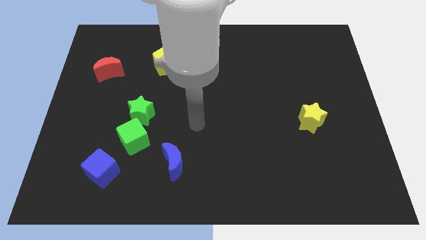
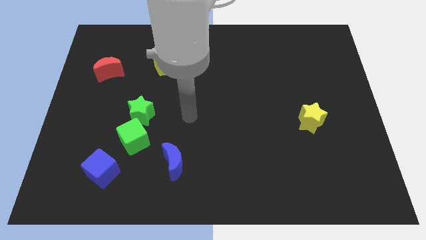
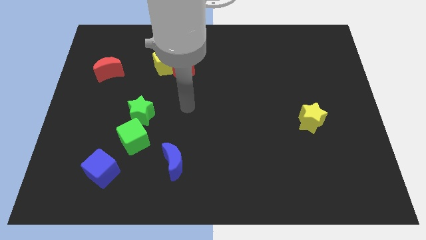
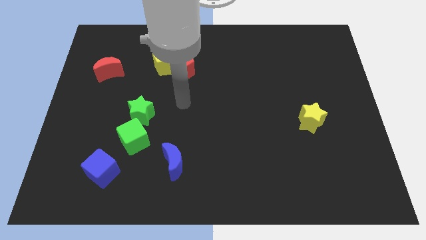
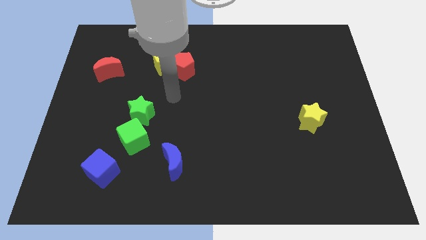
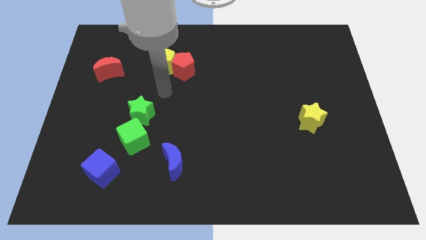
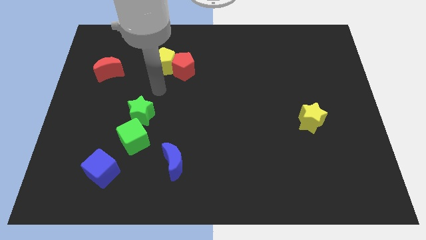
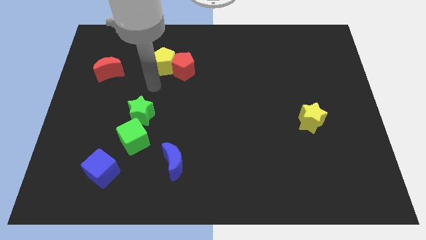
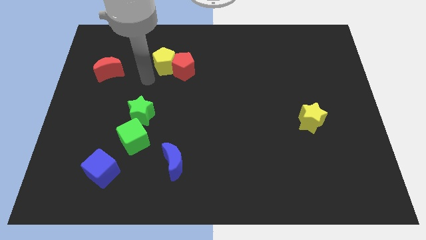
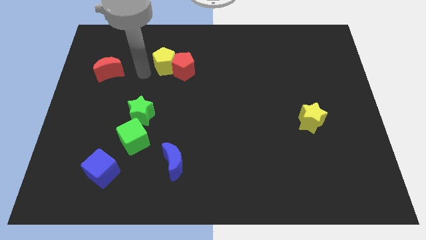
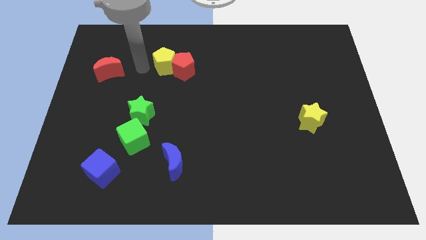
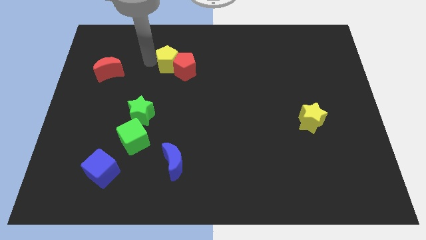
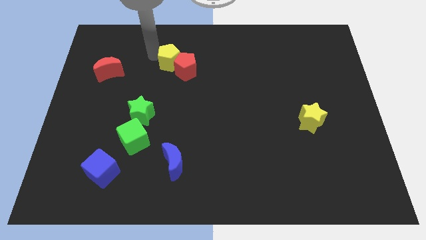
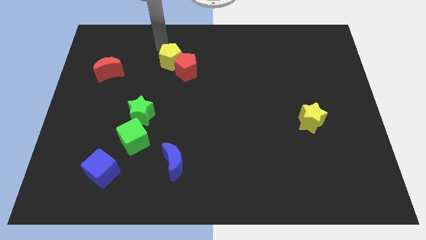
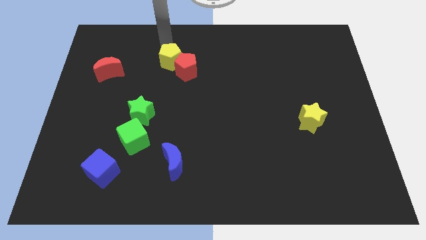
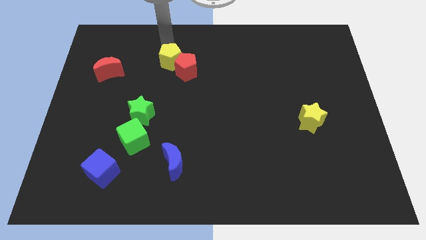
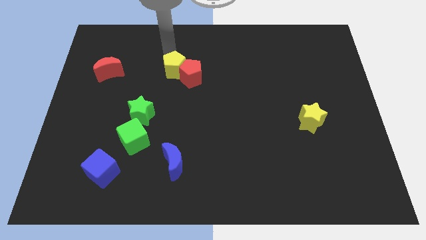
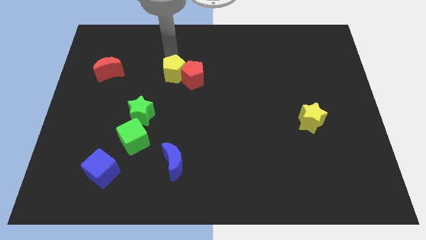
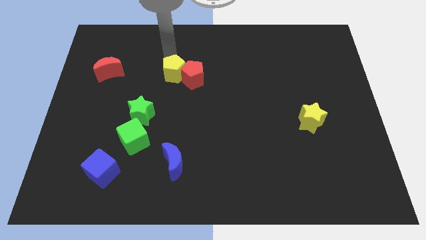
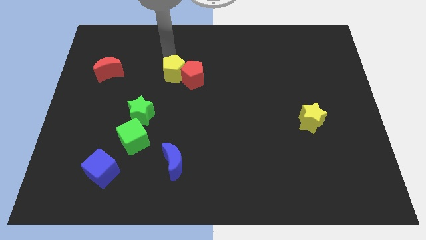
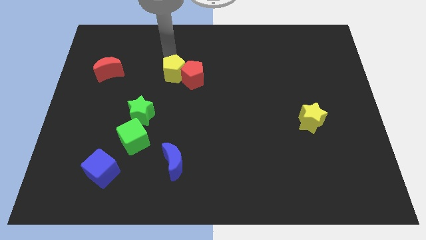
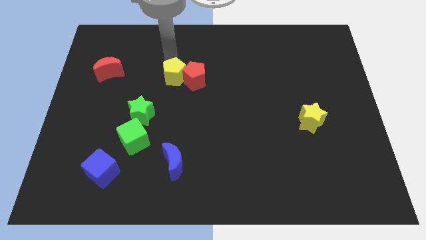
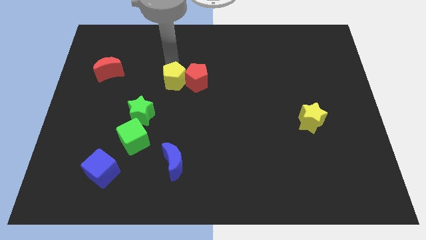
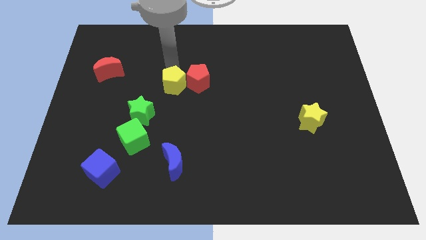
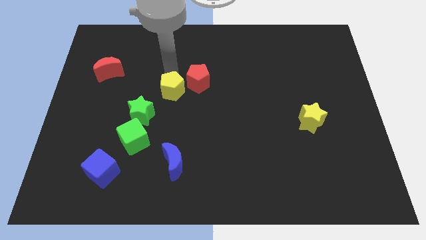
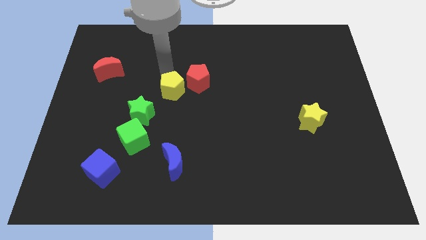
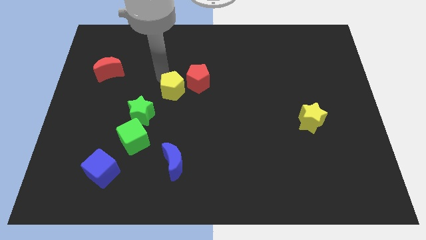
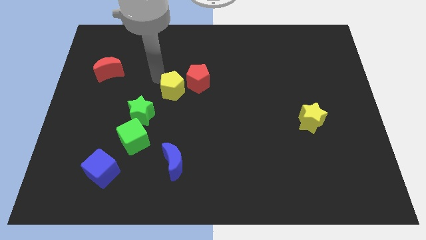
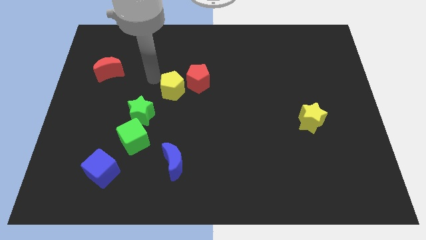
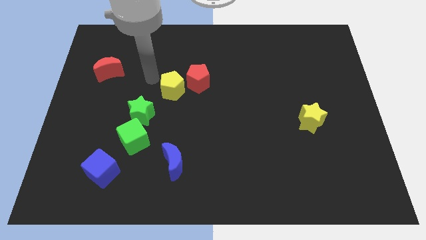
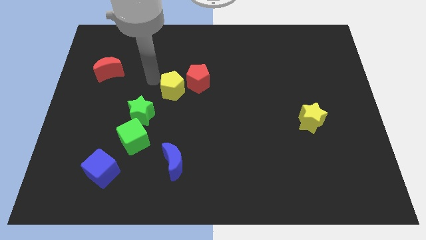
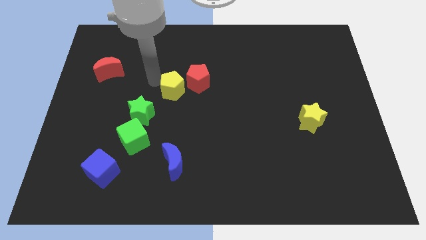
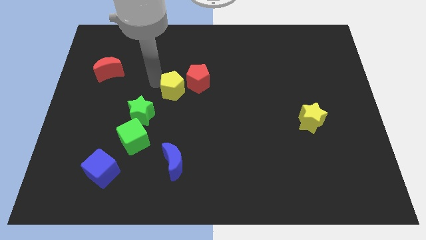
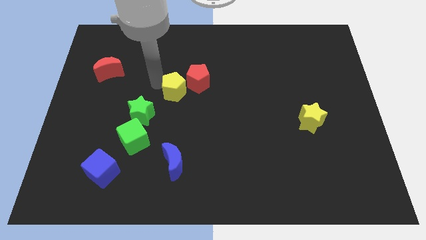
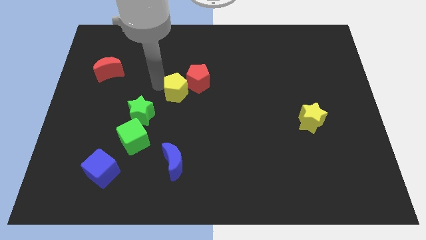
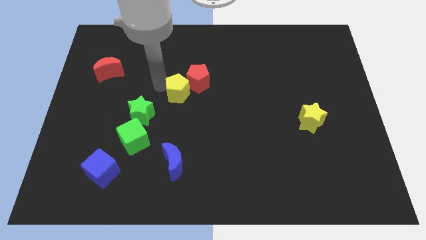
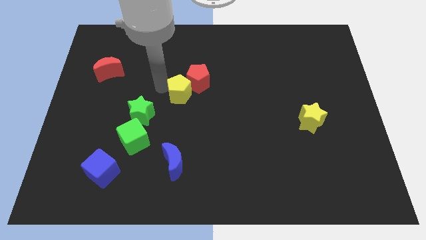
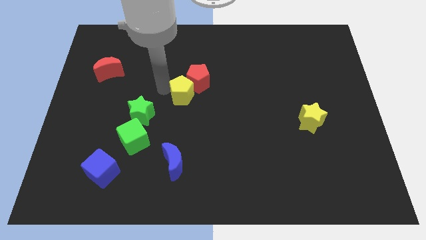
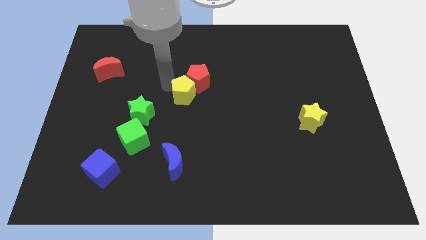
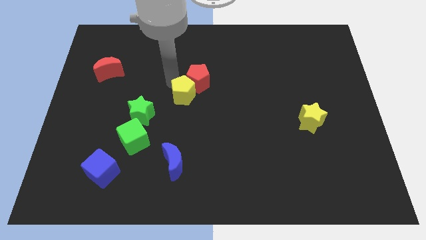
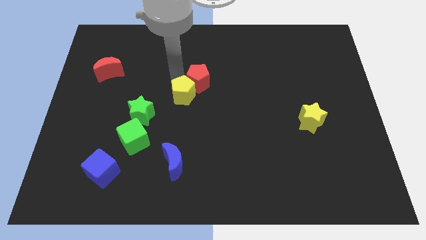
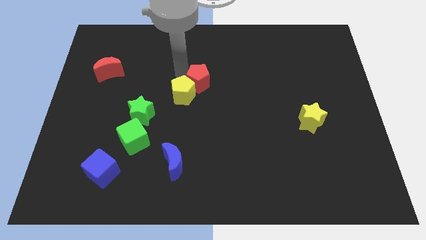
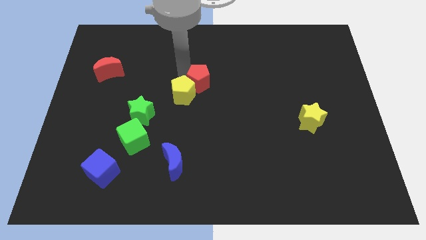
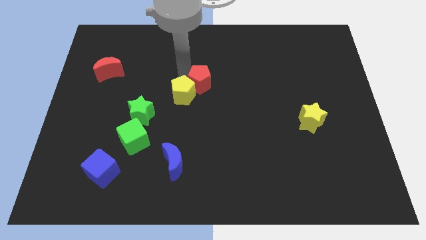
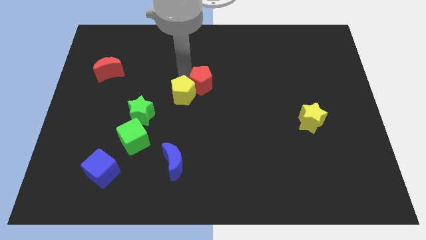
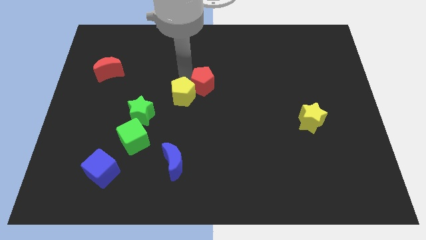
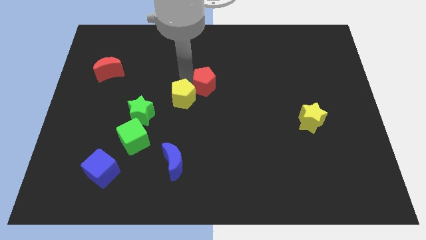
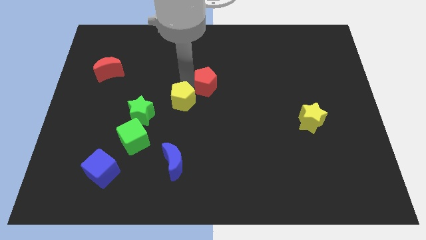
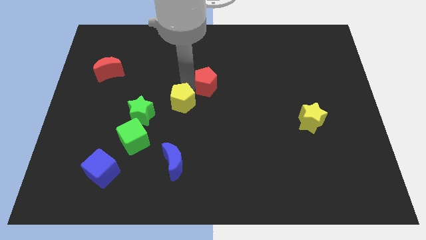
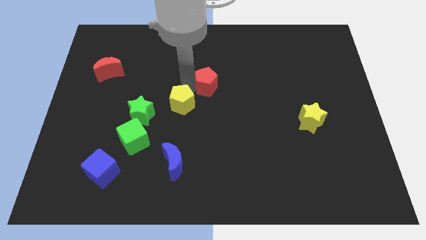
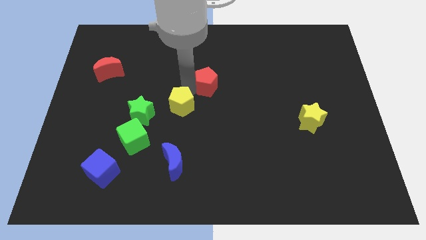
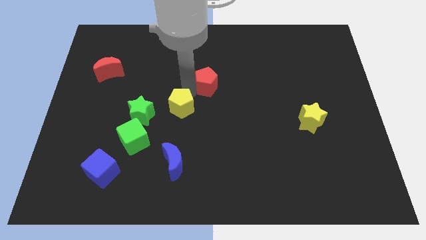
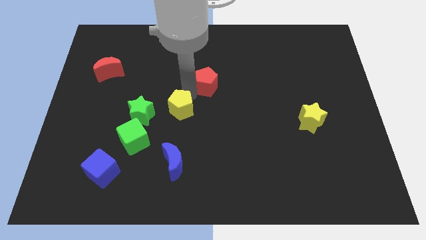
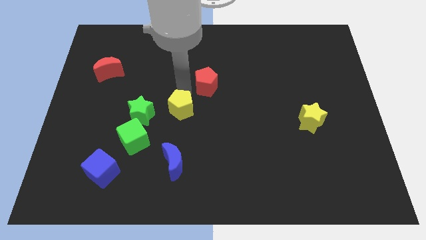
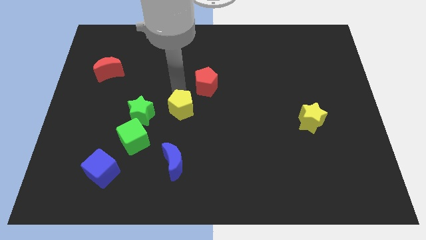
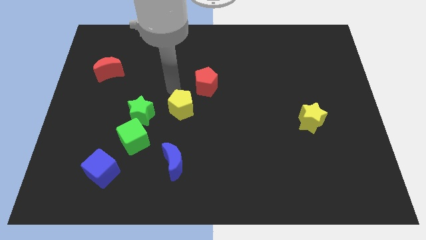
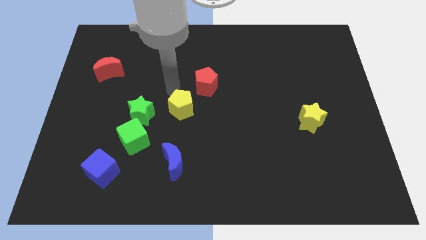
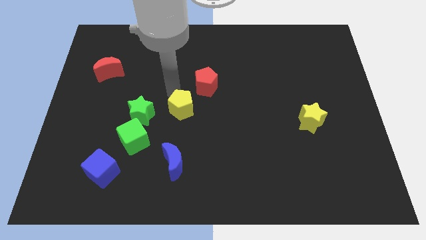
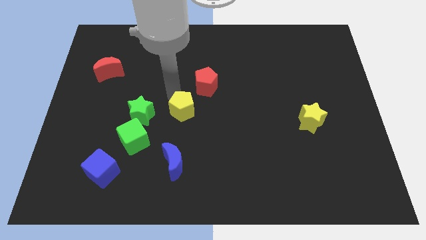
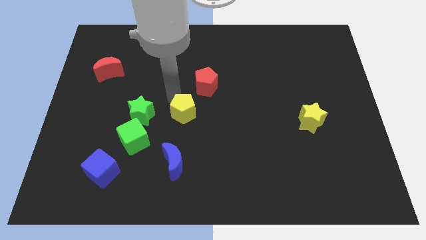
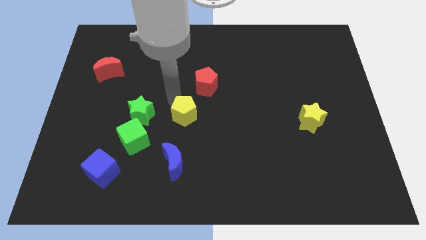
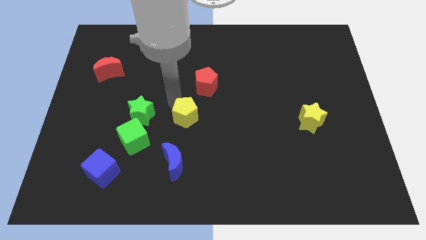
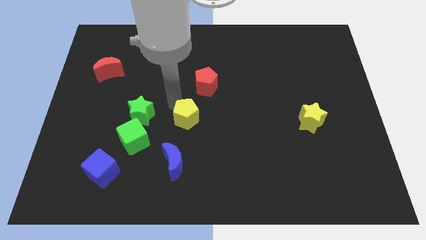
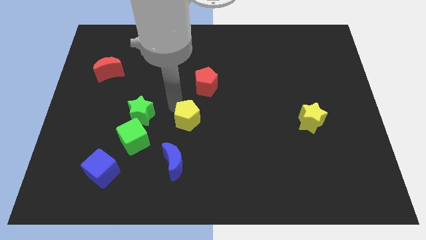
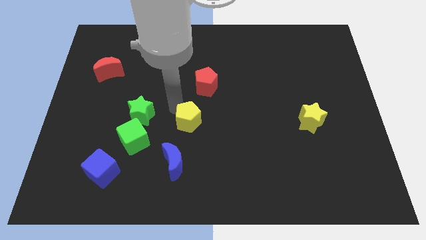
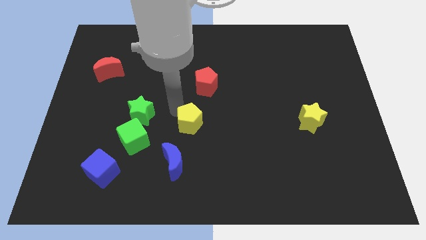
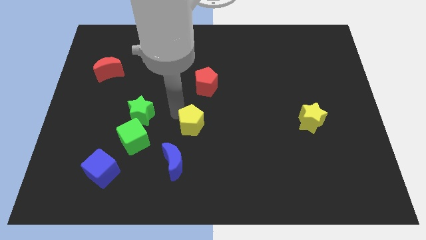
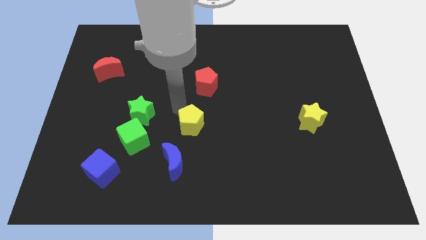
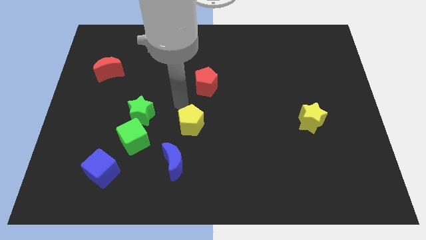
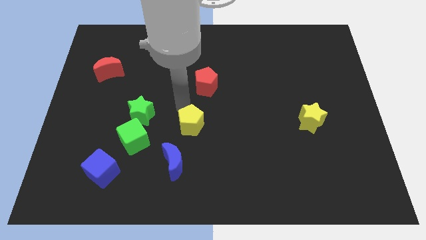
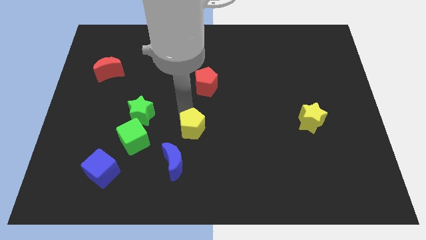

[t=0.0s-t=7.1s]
slide the yellow pentagon diagonally up and to the right of the blue moon

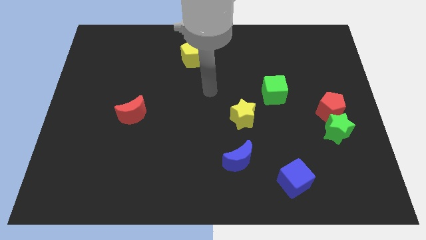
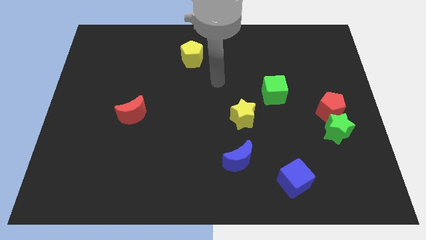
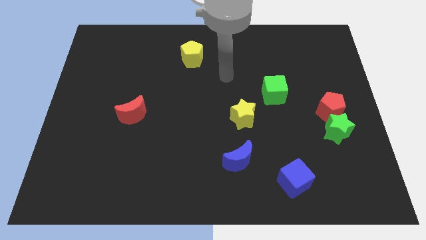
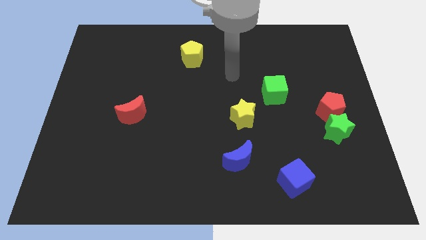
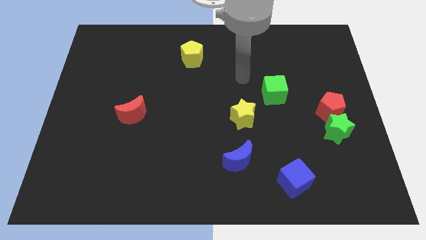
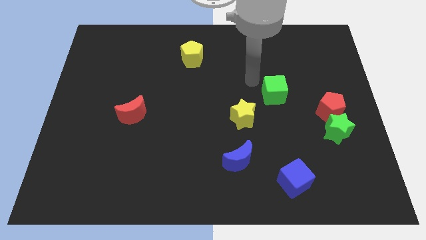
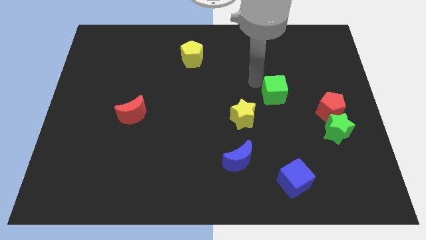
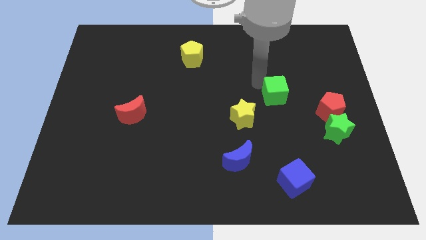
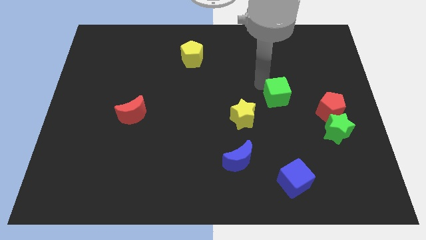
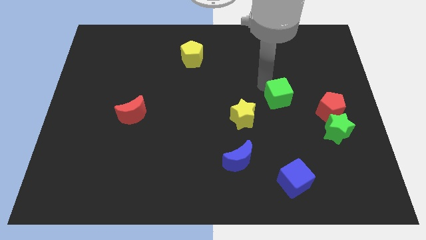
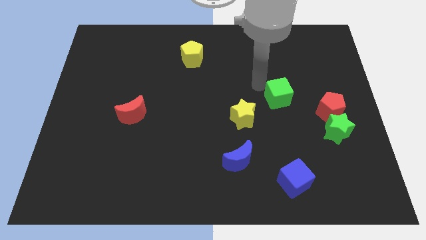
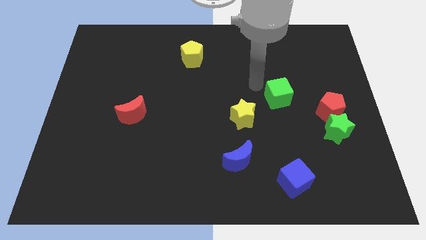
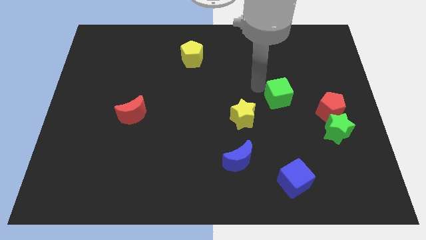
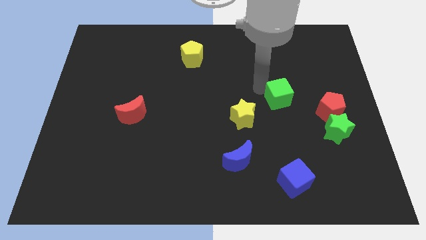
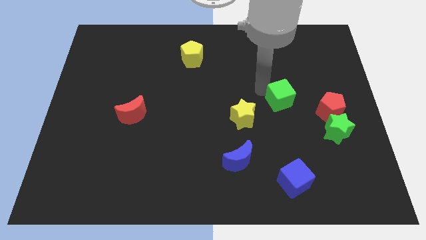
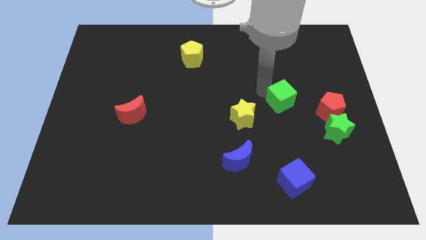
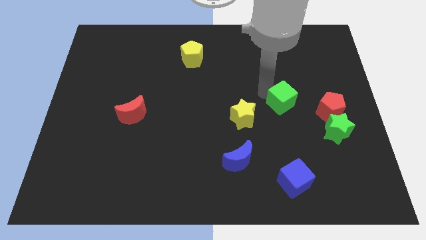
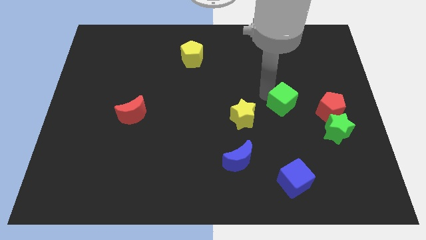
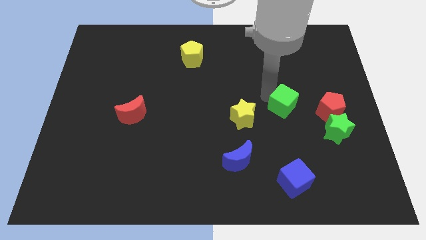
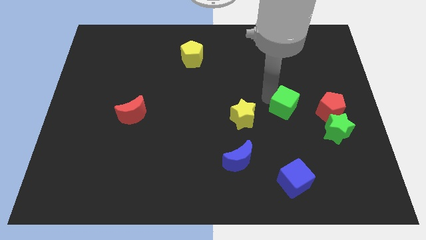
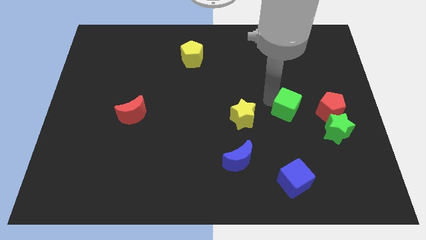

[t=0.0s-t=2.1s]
put the green cube diagonally up and to the left of the green star
